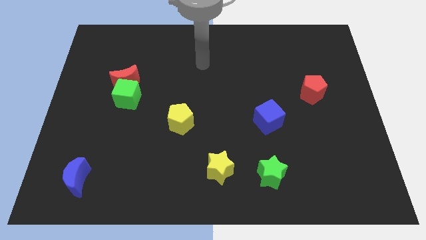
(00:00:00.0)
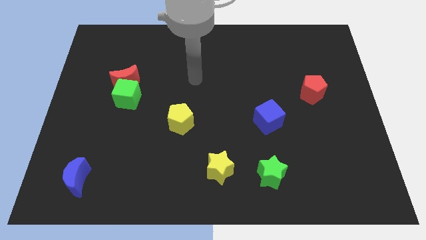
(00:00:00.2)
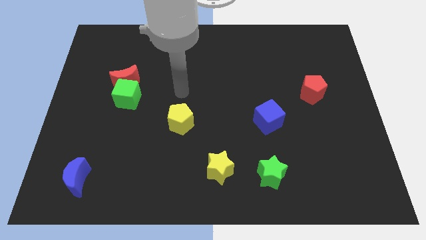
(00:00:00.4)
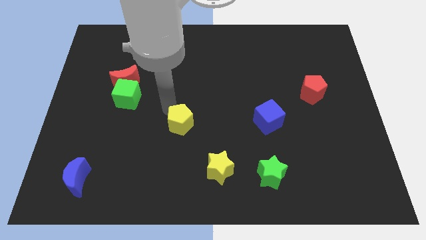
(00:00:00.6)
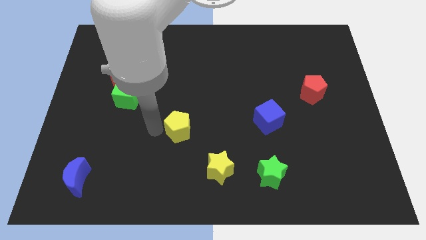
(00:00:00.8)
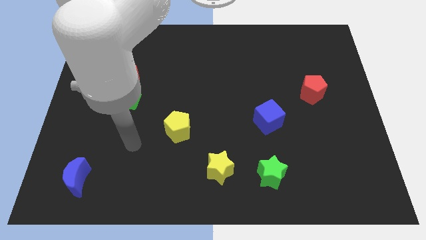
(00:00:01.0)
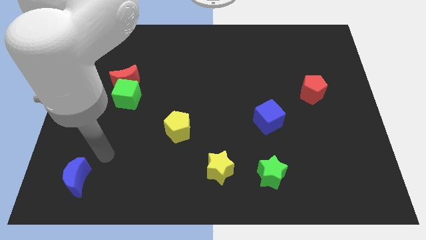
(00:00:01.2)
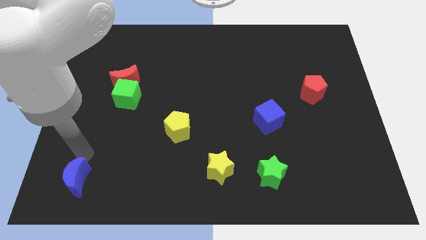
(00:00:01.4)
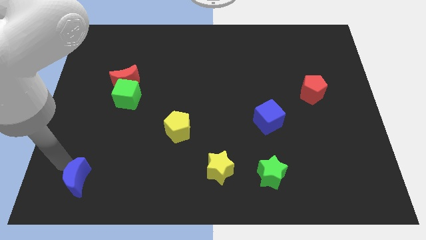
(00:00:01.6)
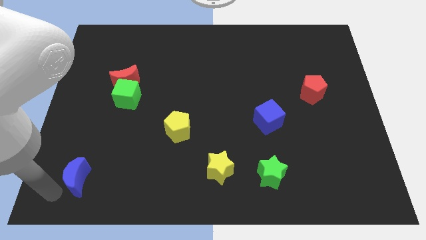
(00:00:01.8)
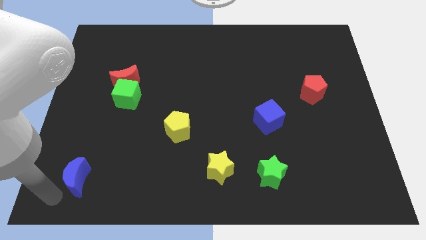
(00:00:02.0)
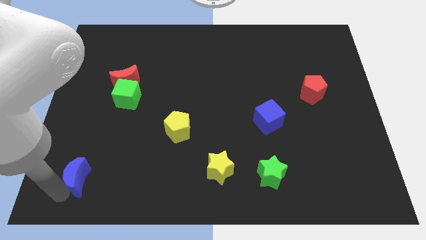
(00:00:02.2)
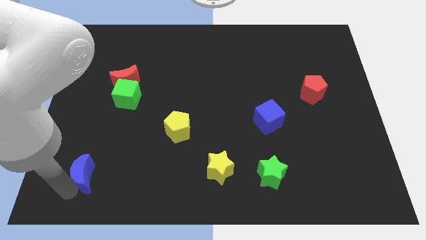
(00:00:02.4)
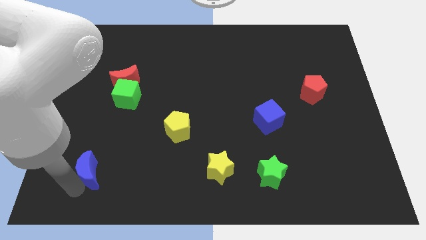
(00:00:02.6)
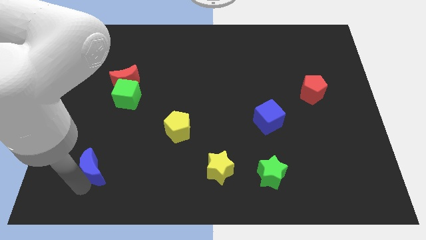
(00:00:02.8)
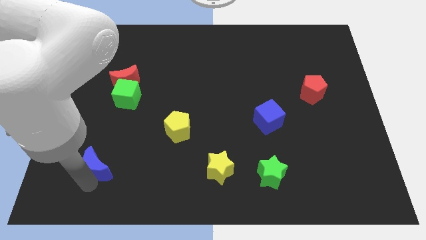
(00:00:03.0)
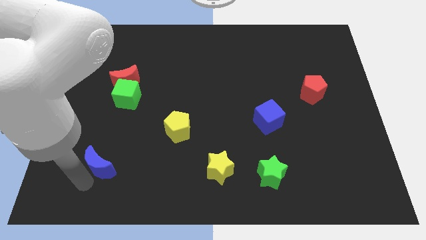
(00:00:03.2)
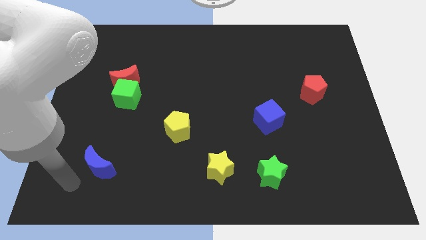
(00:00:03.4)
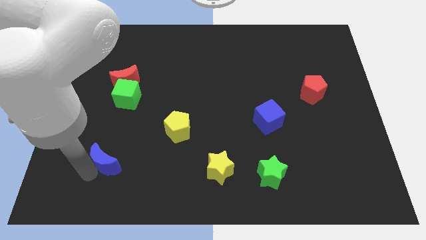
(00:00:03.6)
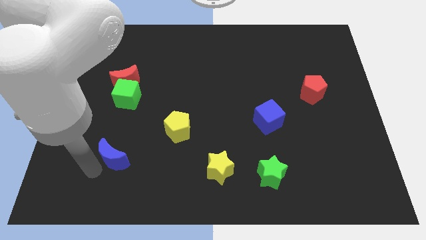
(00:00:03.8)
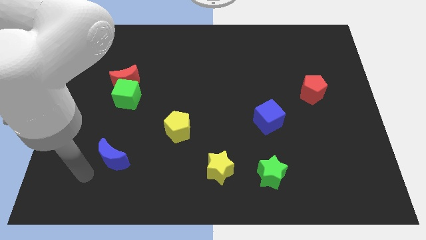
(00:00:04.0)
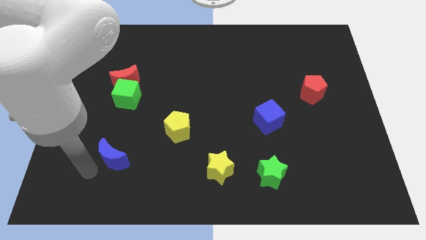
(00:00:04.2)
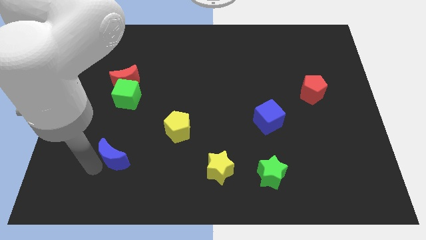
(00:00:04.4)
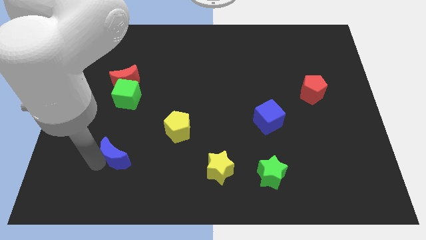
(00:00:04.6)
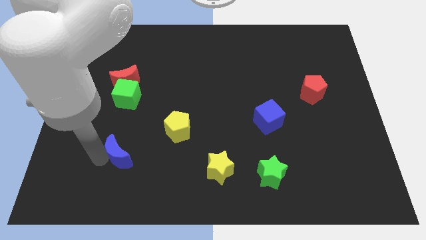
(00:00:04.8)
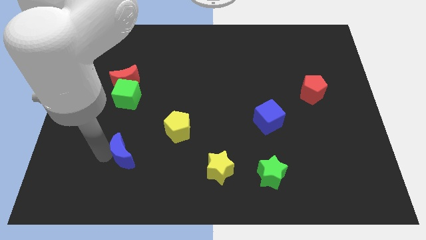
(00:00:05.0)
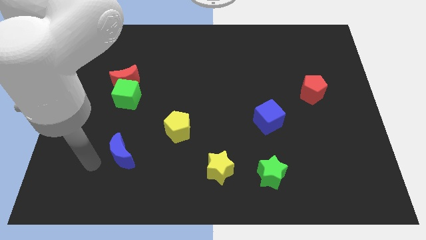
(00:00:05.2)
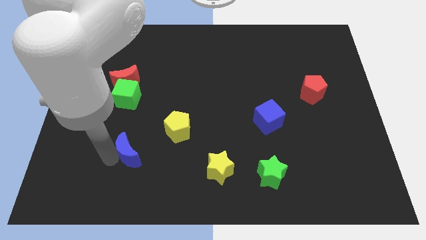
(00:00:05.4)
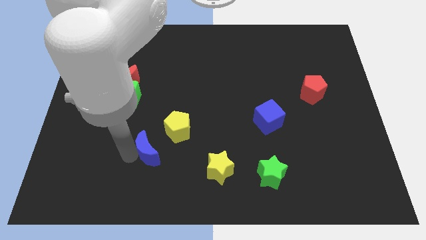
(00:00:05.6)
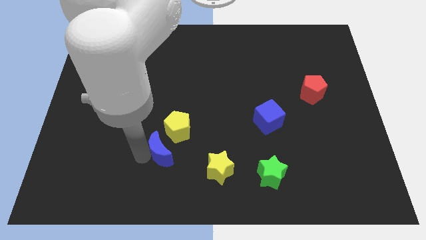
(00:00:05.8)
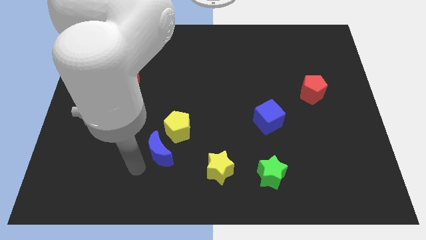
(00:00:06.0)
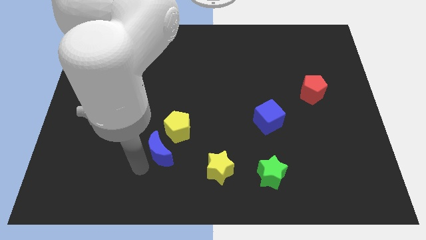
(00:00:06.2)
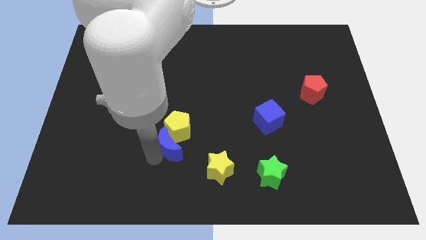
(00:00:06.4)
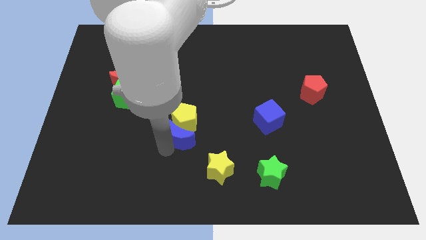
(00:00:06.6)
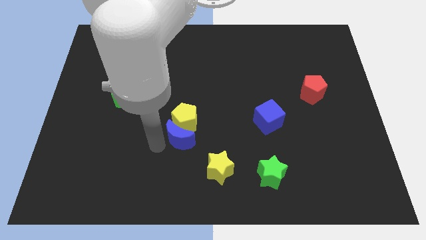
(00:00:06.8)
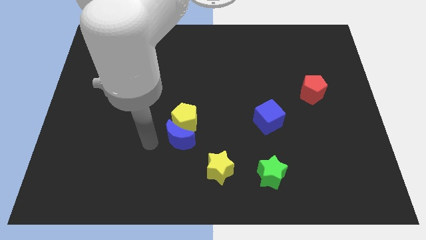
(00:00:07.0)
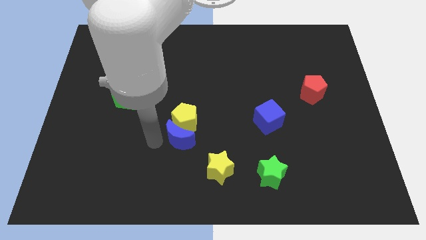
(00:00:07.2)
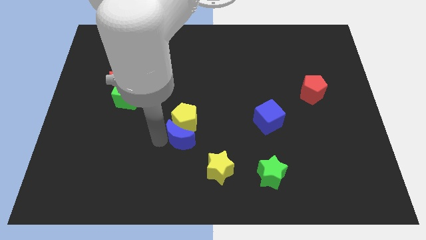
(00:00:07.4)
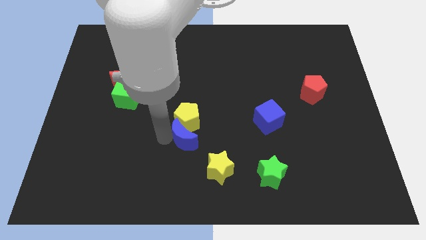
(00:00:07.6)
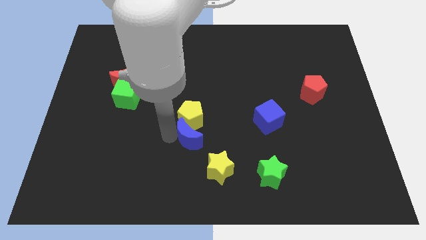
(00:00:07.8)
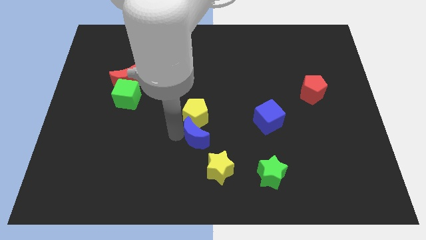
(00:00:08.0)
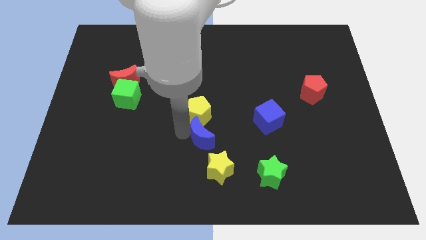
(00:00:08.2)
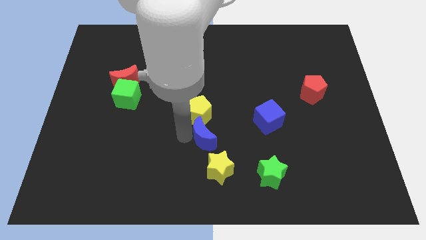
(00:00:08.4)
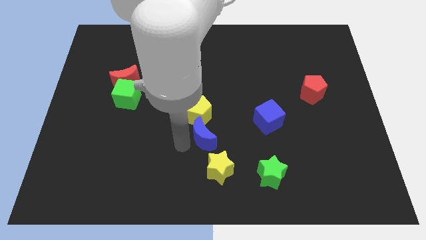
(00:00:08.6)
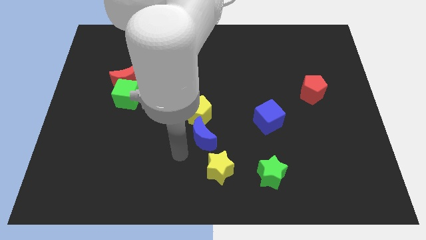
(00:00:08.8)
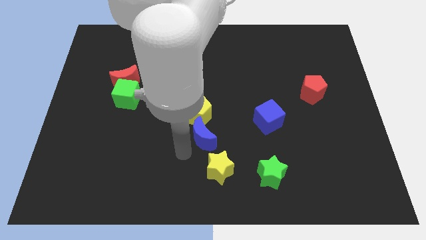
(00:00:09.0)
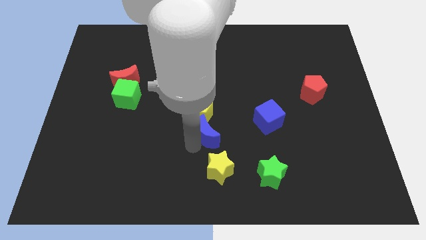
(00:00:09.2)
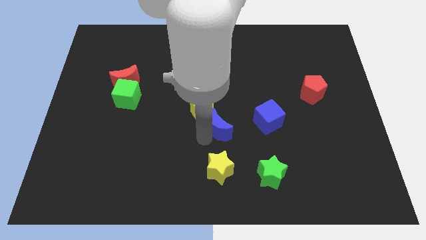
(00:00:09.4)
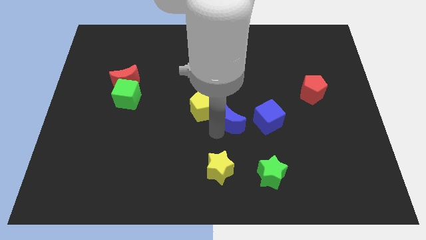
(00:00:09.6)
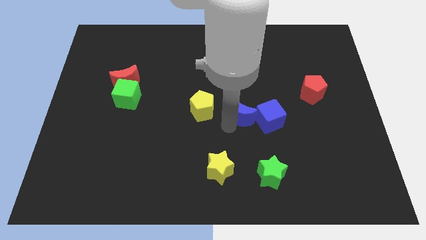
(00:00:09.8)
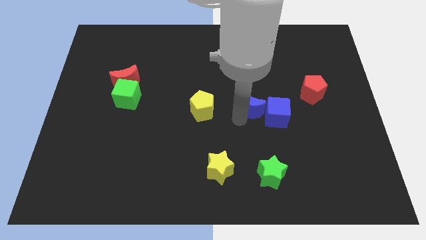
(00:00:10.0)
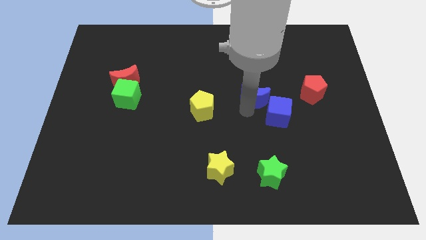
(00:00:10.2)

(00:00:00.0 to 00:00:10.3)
slide the blue moon to the left of the red pentagon

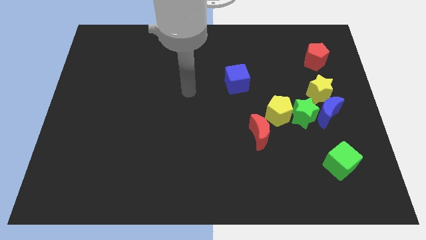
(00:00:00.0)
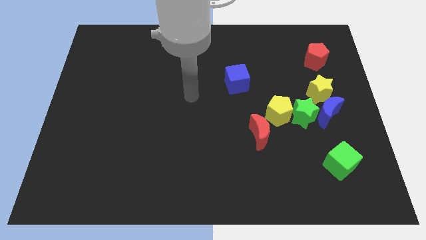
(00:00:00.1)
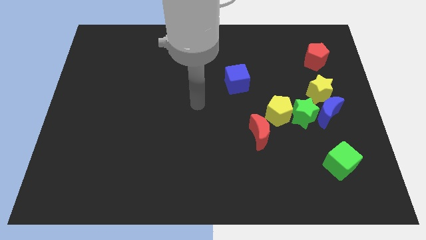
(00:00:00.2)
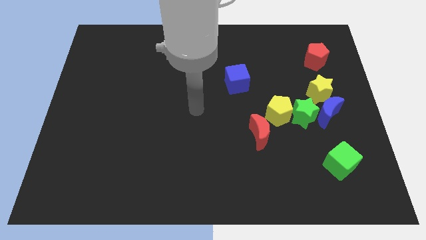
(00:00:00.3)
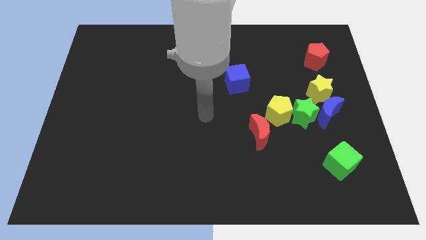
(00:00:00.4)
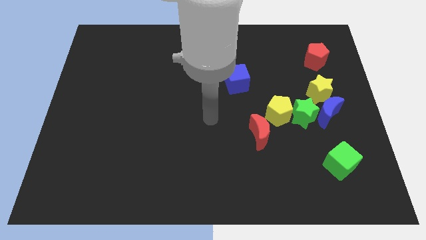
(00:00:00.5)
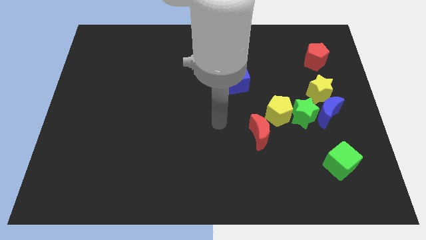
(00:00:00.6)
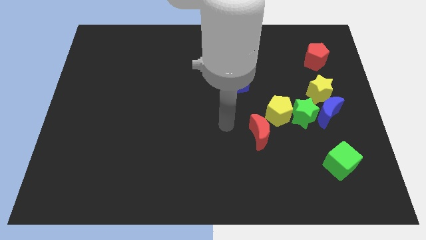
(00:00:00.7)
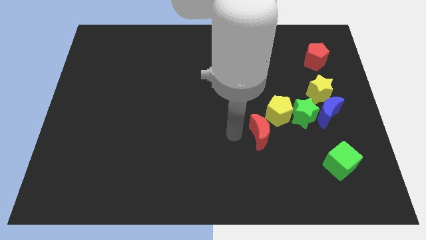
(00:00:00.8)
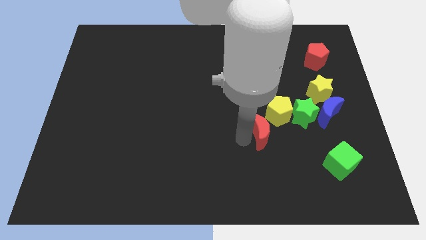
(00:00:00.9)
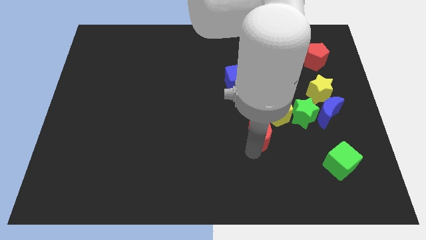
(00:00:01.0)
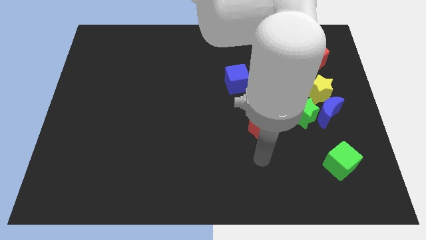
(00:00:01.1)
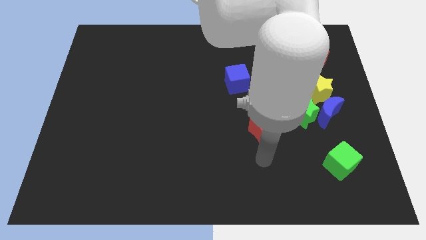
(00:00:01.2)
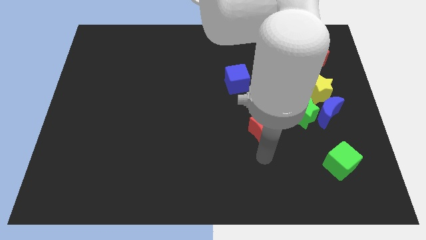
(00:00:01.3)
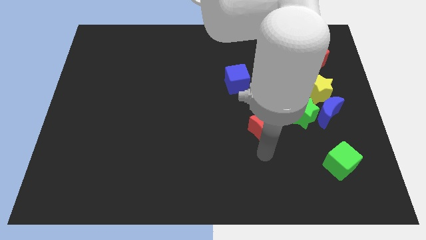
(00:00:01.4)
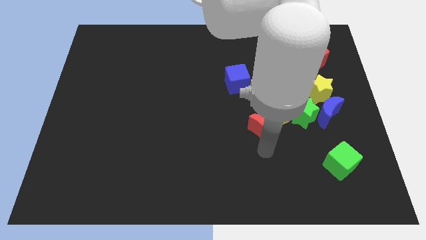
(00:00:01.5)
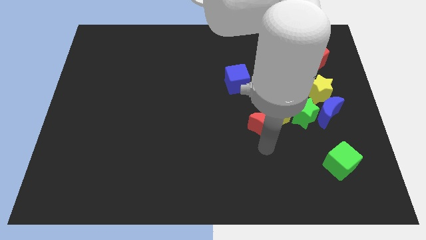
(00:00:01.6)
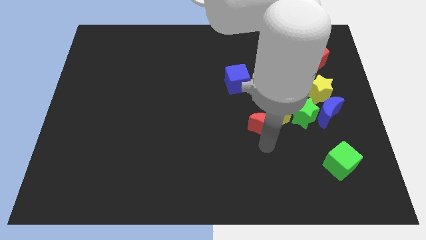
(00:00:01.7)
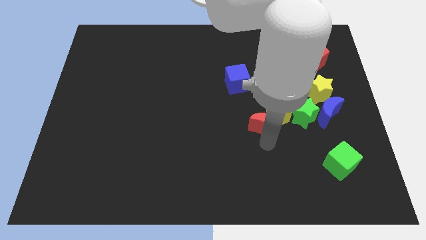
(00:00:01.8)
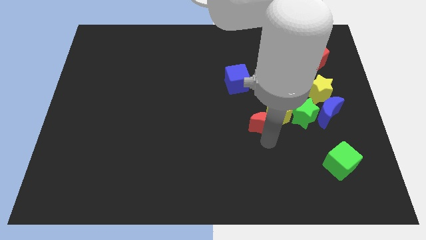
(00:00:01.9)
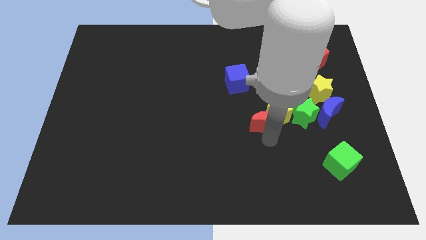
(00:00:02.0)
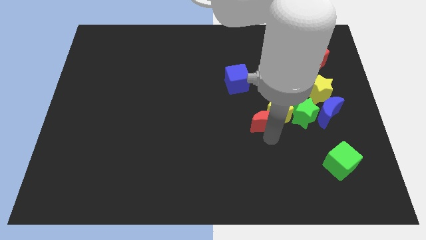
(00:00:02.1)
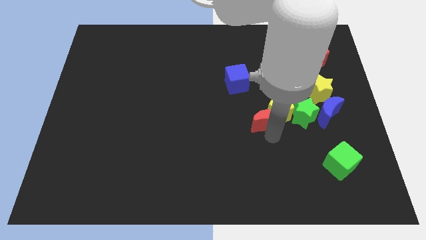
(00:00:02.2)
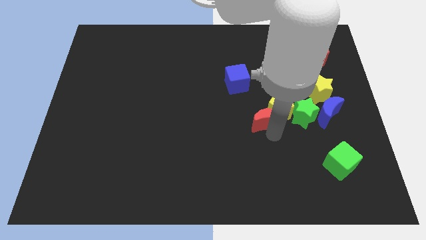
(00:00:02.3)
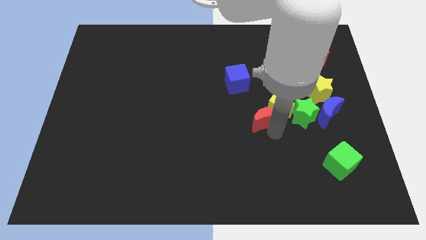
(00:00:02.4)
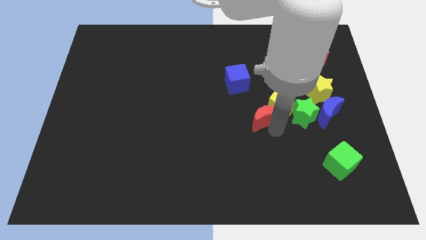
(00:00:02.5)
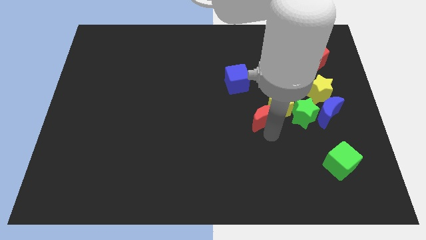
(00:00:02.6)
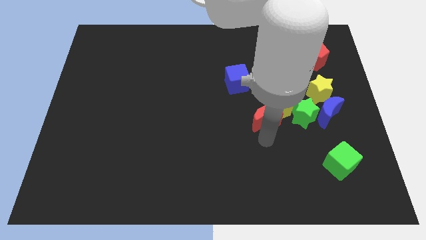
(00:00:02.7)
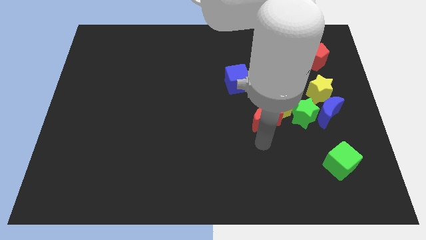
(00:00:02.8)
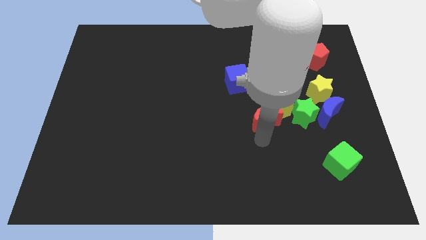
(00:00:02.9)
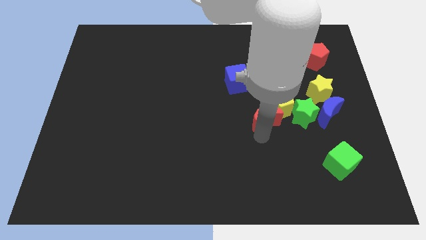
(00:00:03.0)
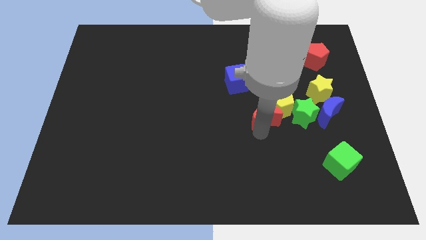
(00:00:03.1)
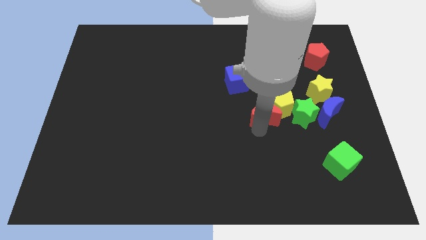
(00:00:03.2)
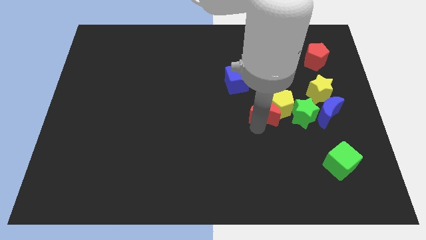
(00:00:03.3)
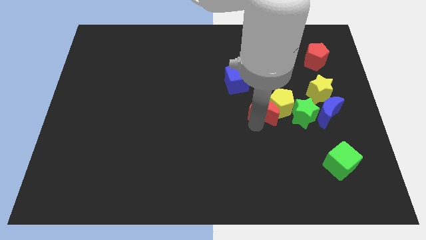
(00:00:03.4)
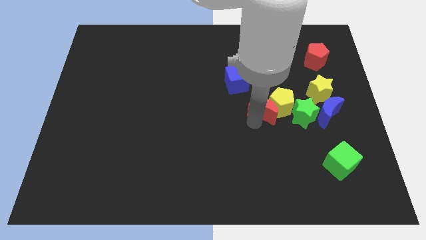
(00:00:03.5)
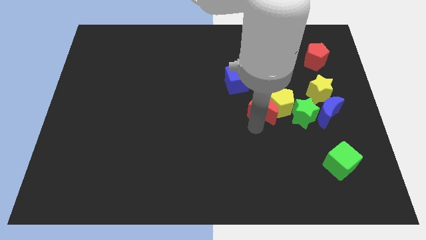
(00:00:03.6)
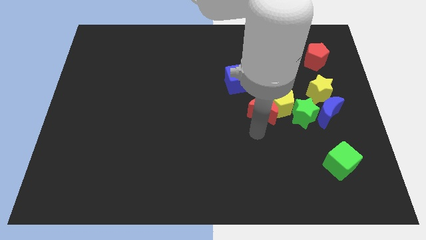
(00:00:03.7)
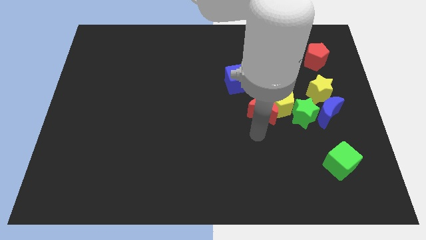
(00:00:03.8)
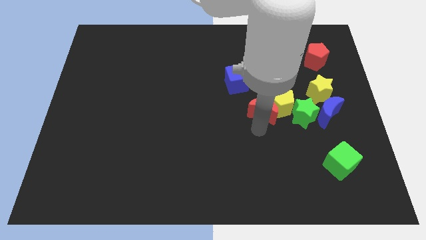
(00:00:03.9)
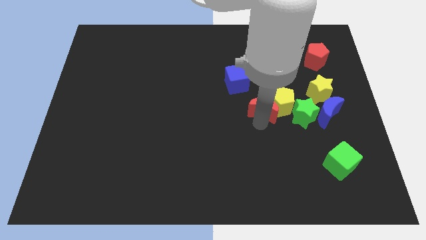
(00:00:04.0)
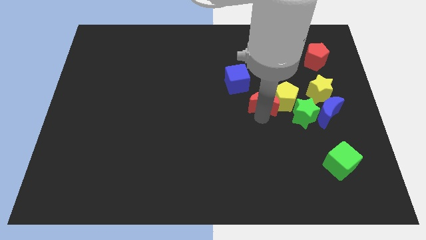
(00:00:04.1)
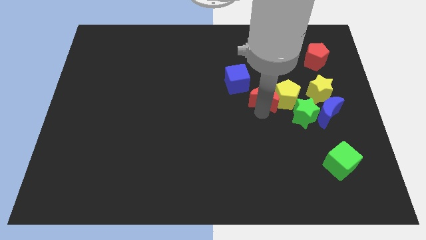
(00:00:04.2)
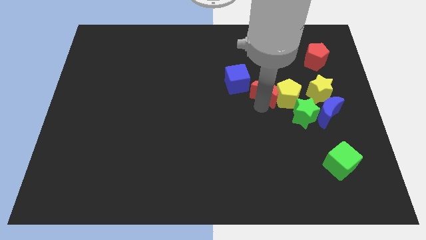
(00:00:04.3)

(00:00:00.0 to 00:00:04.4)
move the red moon just right of the blue cube
